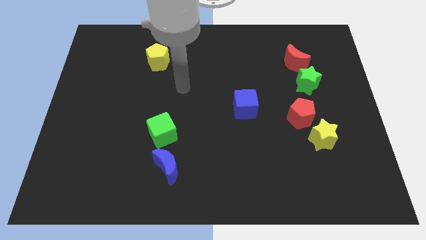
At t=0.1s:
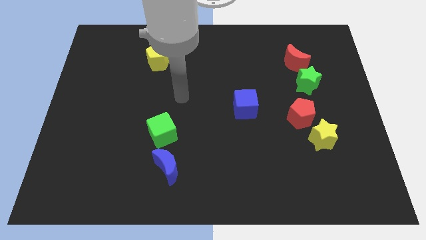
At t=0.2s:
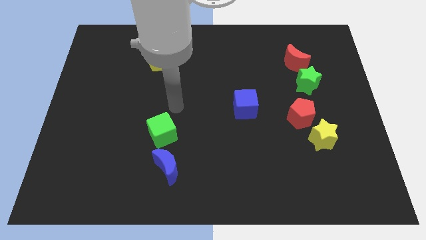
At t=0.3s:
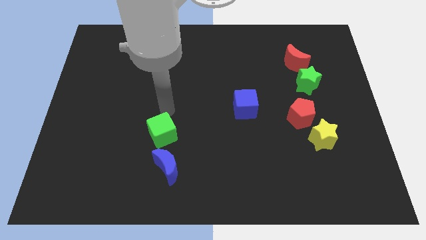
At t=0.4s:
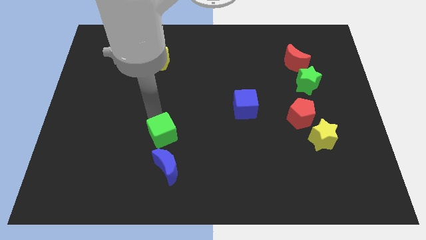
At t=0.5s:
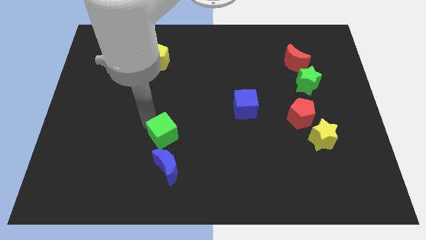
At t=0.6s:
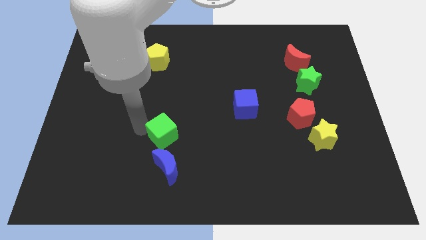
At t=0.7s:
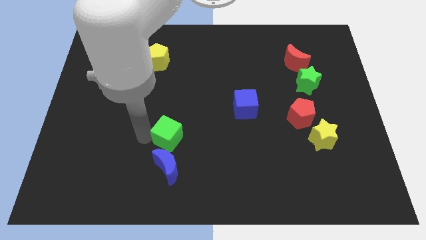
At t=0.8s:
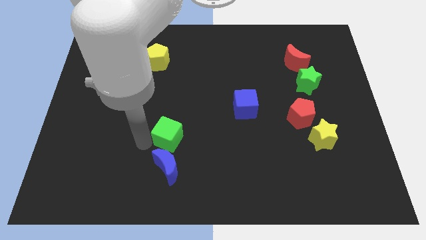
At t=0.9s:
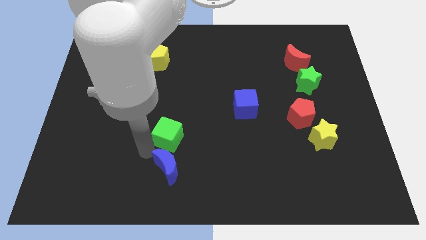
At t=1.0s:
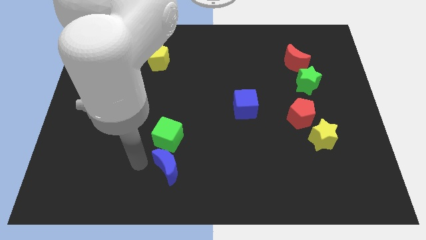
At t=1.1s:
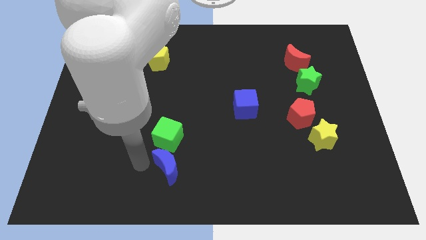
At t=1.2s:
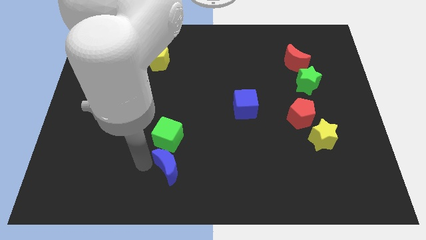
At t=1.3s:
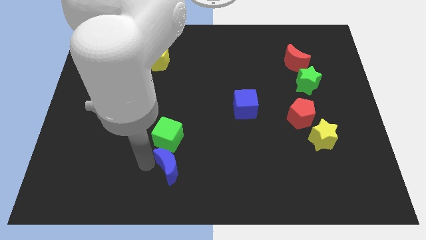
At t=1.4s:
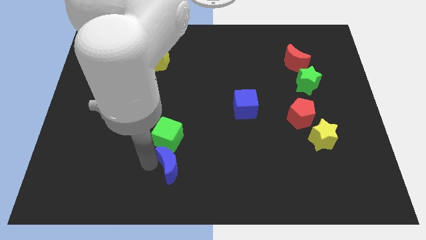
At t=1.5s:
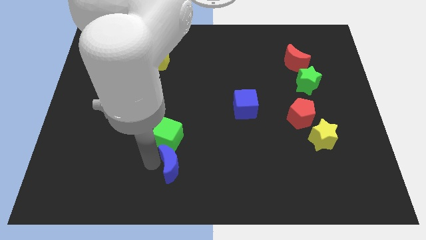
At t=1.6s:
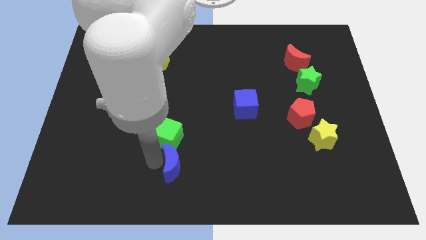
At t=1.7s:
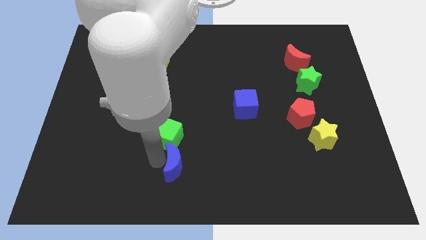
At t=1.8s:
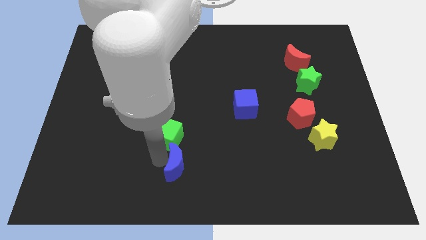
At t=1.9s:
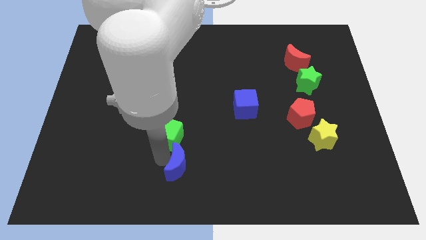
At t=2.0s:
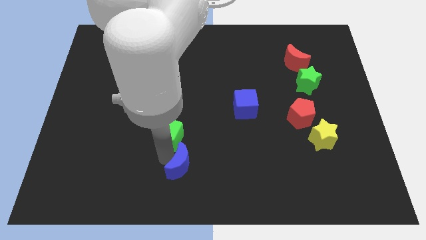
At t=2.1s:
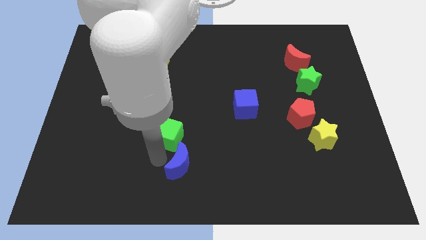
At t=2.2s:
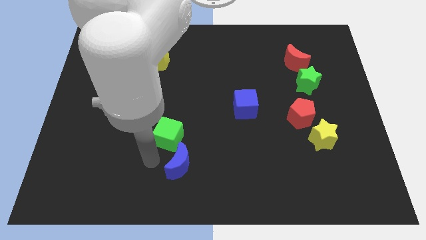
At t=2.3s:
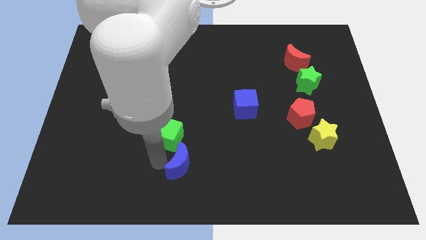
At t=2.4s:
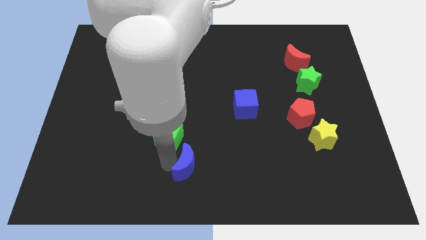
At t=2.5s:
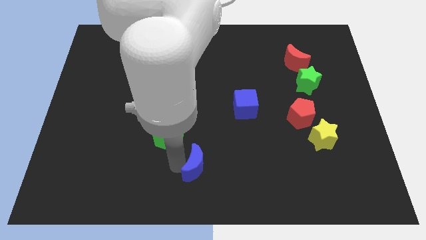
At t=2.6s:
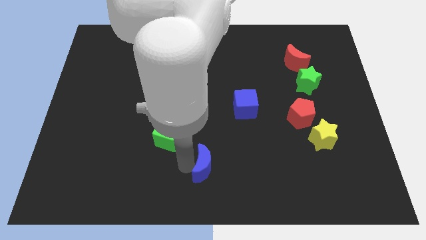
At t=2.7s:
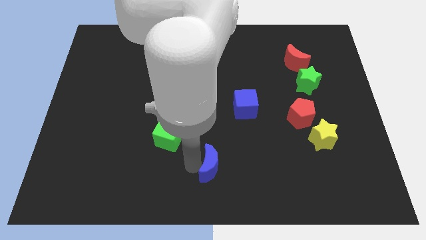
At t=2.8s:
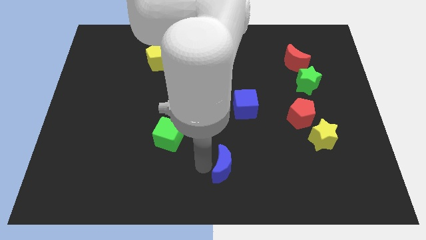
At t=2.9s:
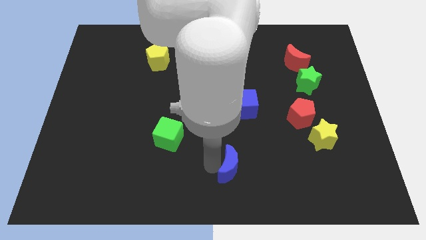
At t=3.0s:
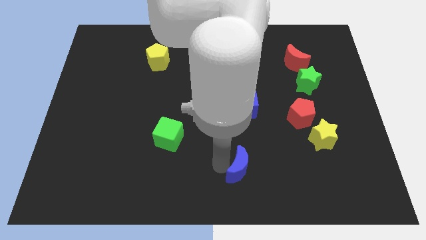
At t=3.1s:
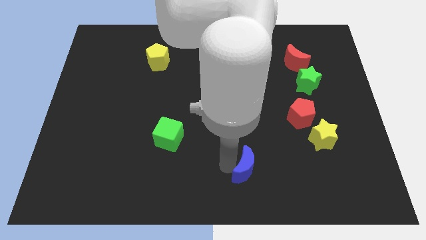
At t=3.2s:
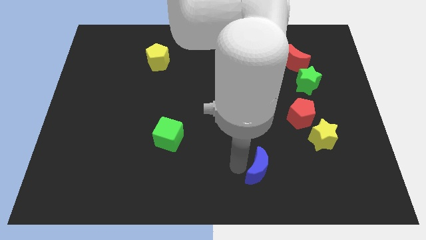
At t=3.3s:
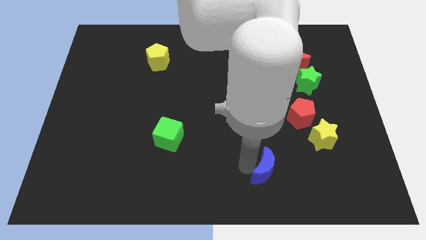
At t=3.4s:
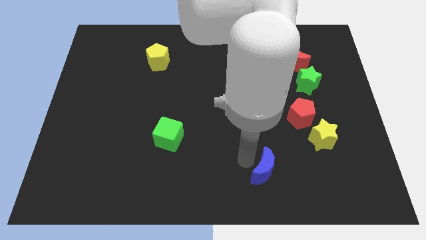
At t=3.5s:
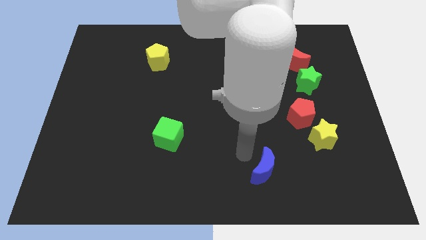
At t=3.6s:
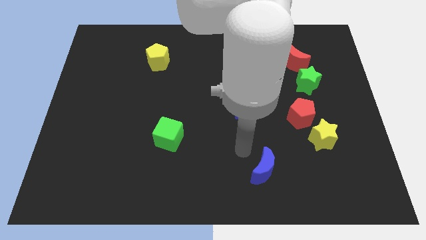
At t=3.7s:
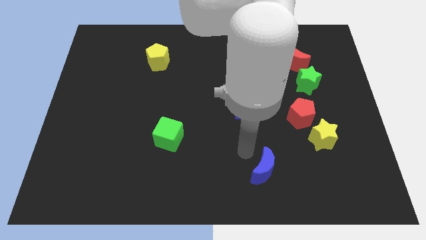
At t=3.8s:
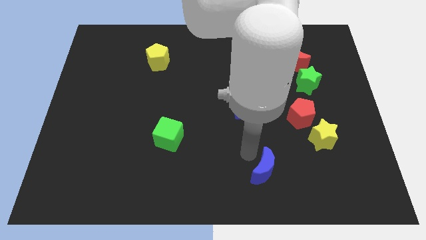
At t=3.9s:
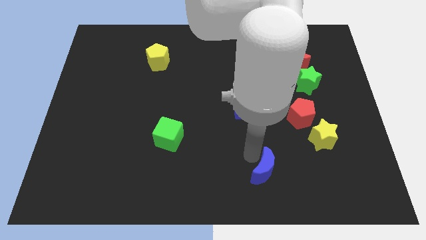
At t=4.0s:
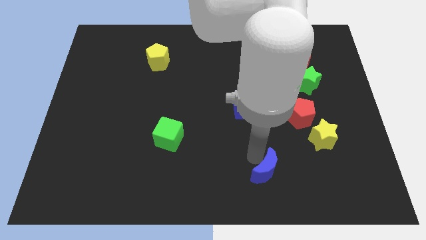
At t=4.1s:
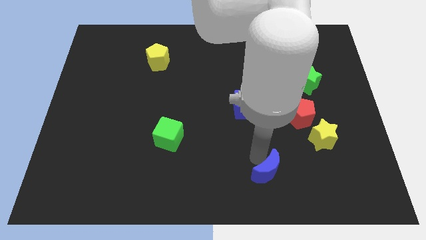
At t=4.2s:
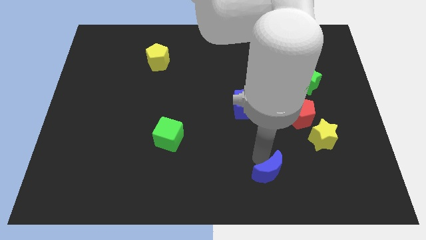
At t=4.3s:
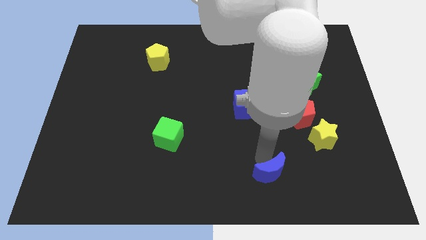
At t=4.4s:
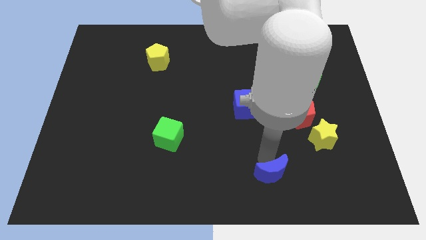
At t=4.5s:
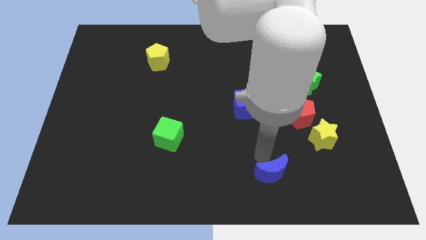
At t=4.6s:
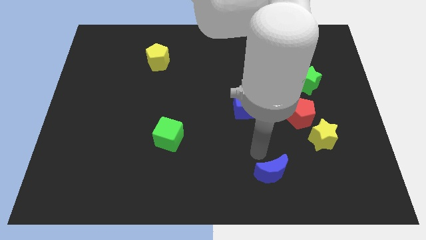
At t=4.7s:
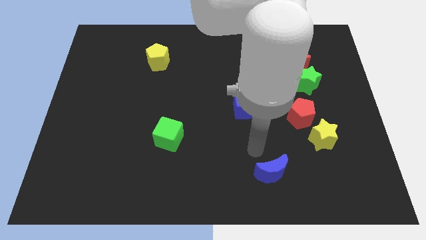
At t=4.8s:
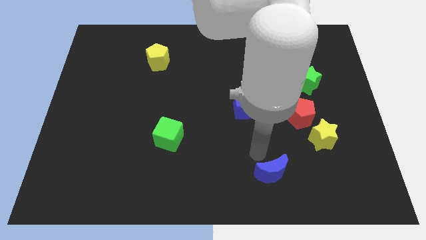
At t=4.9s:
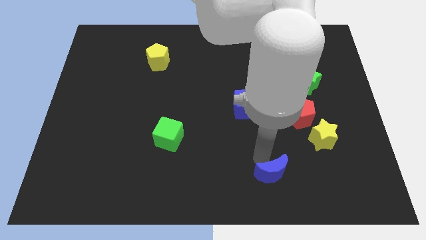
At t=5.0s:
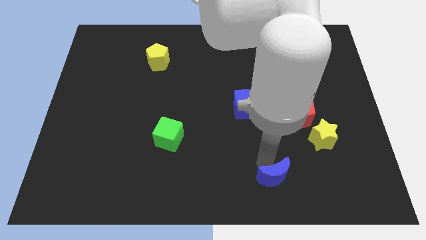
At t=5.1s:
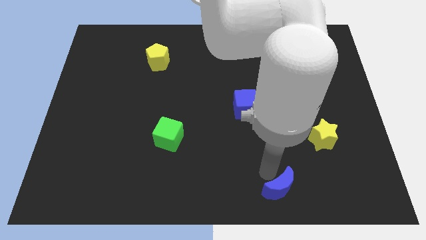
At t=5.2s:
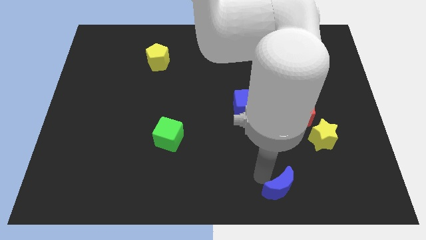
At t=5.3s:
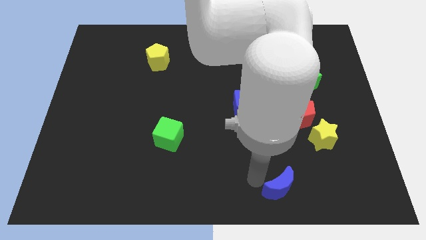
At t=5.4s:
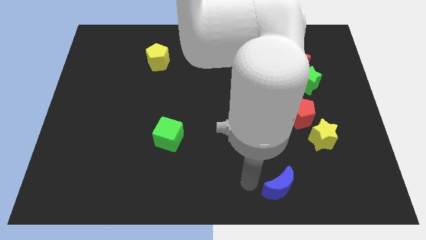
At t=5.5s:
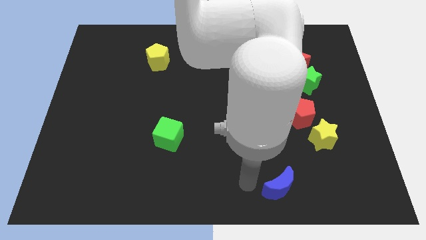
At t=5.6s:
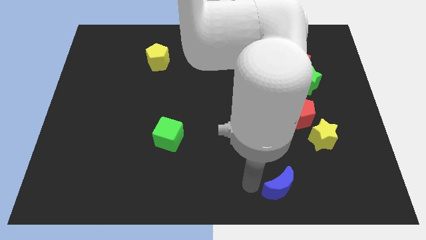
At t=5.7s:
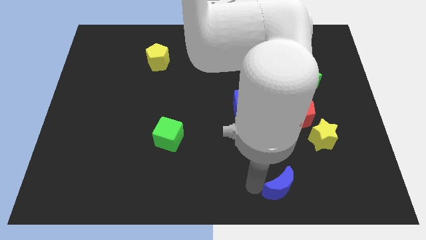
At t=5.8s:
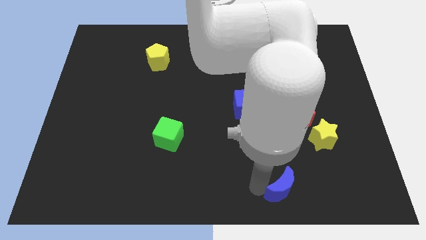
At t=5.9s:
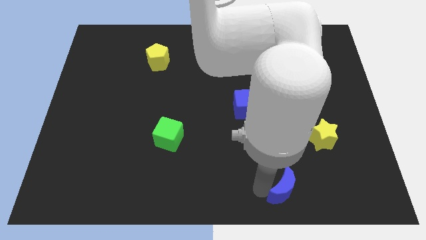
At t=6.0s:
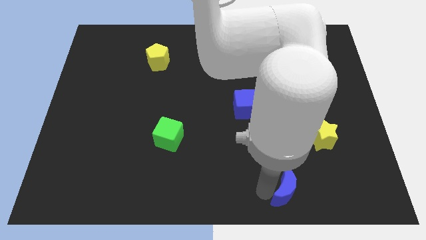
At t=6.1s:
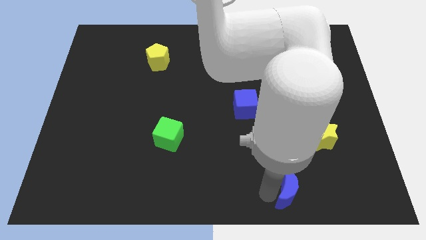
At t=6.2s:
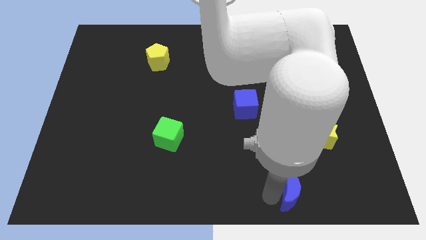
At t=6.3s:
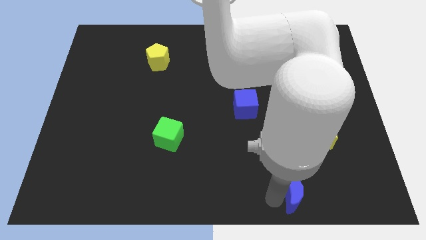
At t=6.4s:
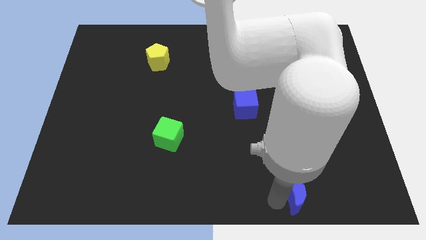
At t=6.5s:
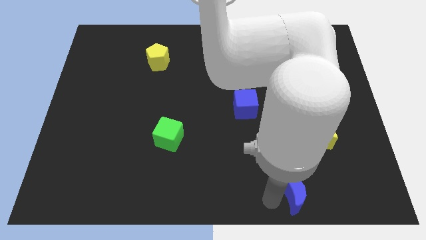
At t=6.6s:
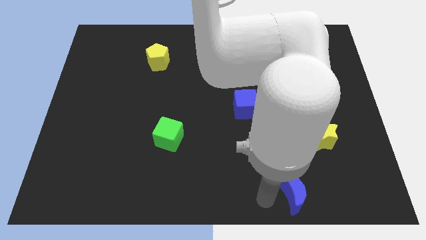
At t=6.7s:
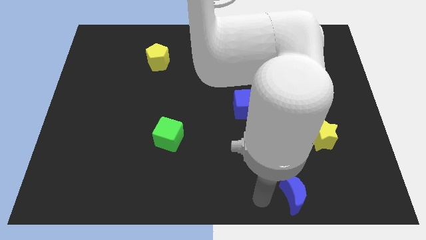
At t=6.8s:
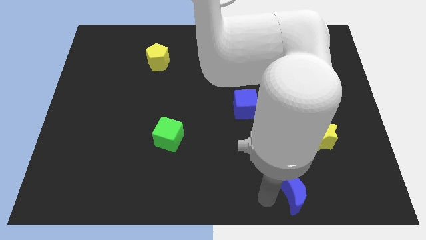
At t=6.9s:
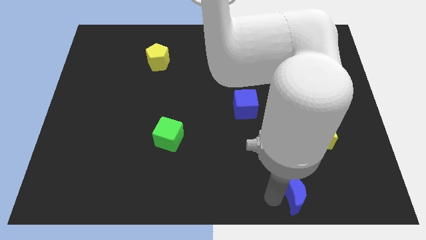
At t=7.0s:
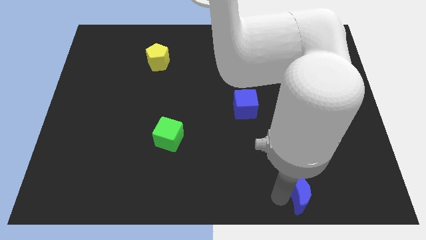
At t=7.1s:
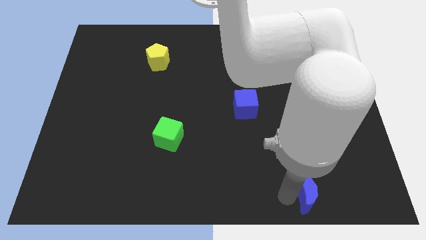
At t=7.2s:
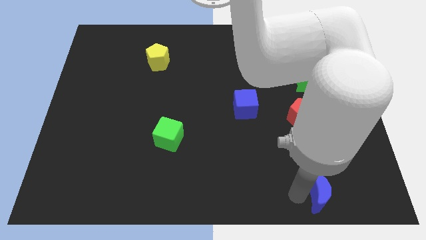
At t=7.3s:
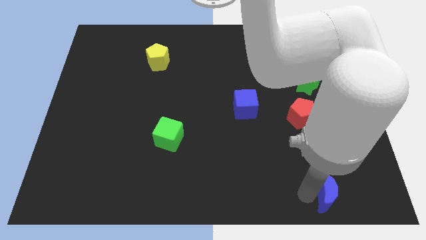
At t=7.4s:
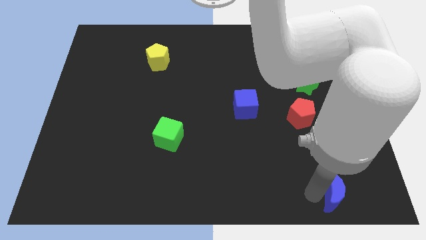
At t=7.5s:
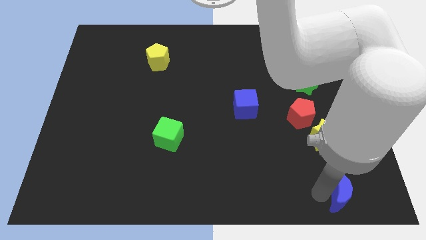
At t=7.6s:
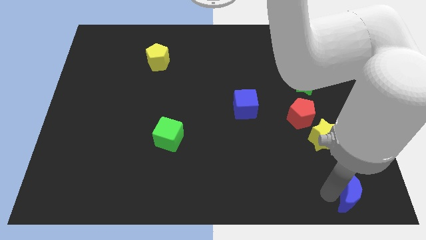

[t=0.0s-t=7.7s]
slide the blue moon to the bottom right of the board
